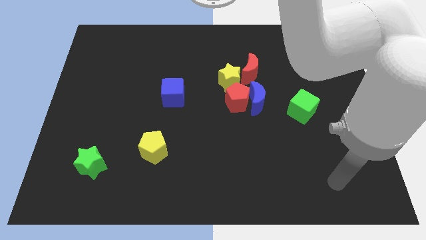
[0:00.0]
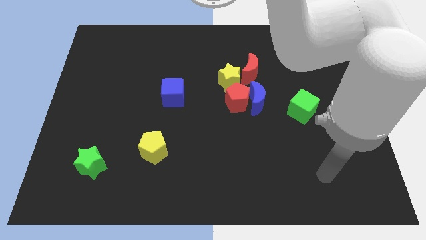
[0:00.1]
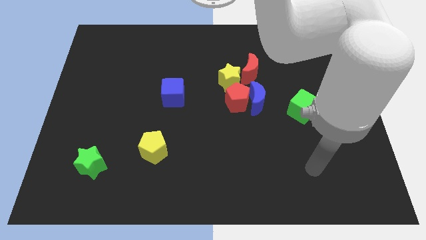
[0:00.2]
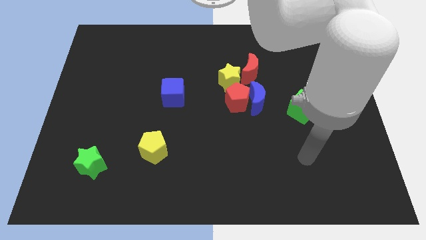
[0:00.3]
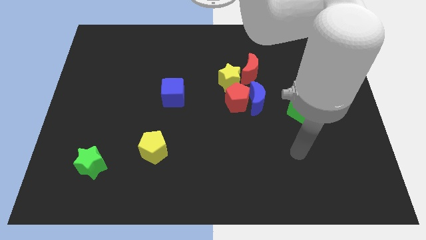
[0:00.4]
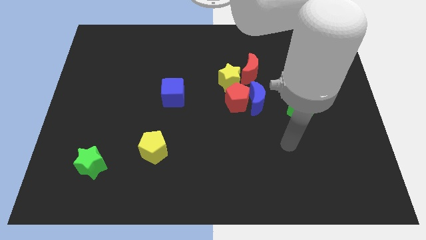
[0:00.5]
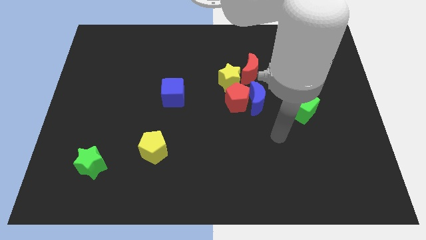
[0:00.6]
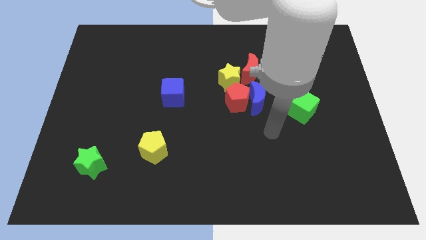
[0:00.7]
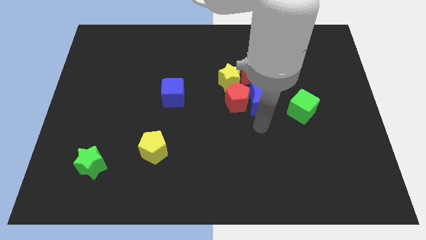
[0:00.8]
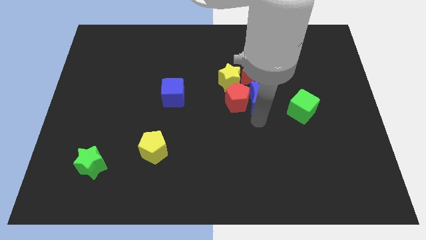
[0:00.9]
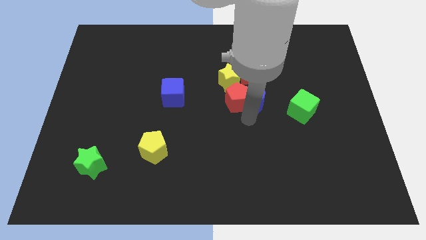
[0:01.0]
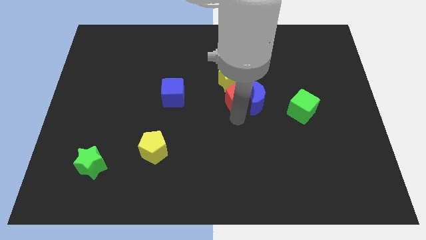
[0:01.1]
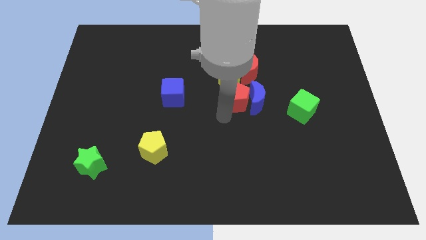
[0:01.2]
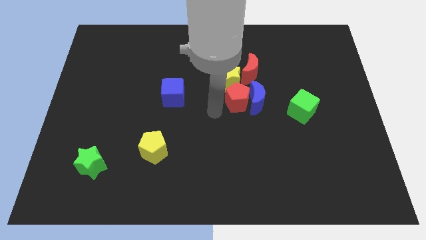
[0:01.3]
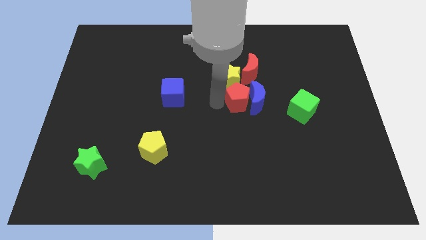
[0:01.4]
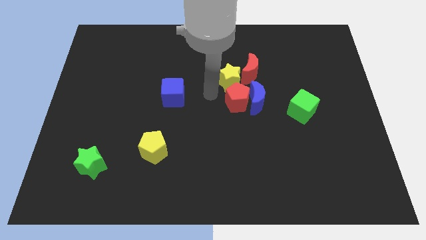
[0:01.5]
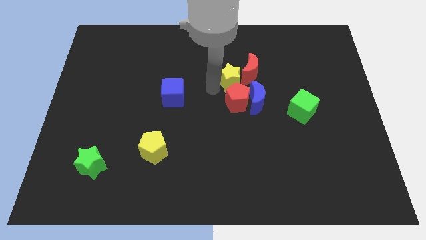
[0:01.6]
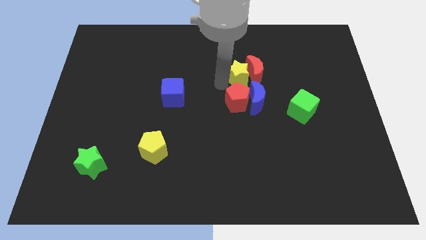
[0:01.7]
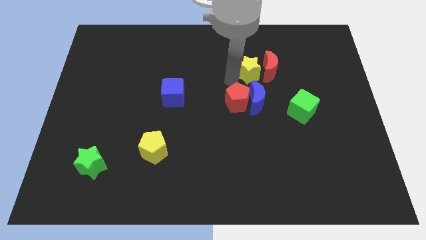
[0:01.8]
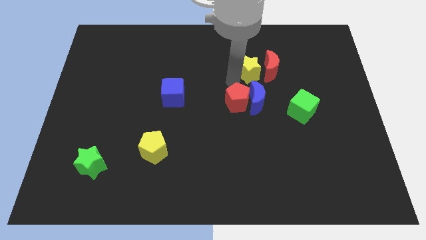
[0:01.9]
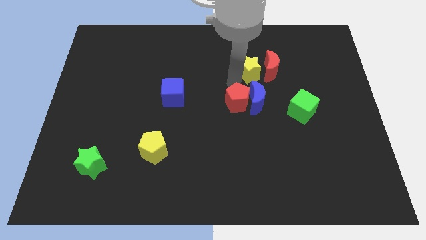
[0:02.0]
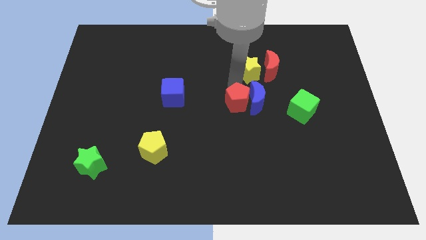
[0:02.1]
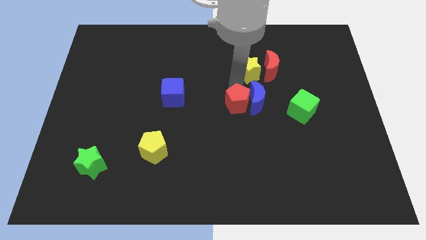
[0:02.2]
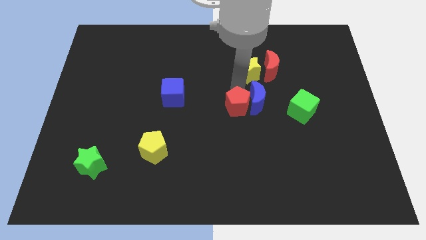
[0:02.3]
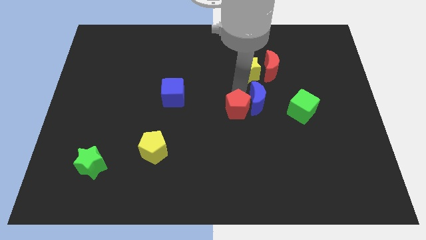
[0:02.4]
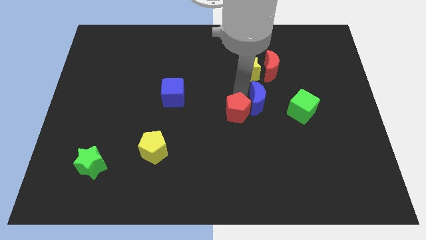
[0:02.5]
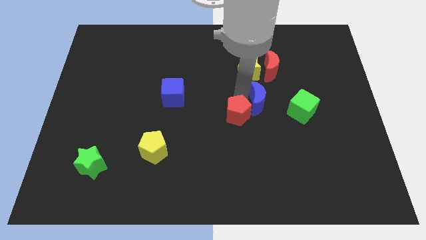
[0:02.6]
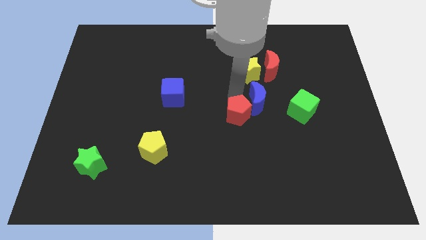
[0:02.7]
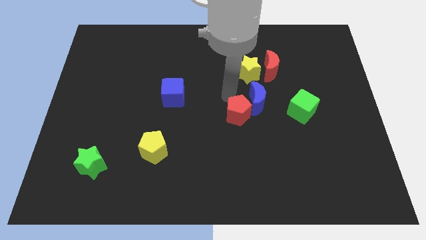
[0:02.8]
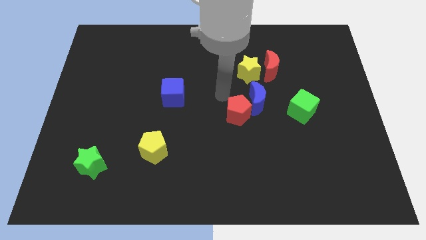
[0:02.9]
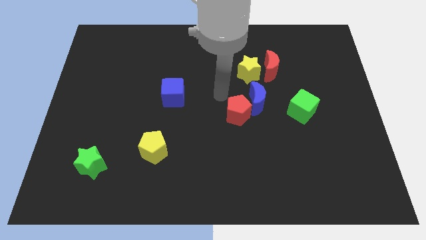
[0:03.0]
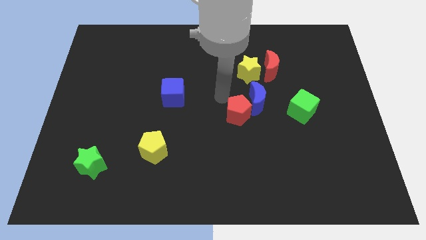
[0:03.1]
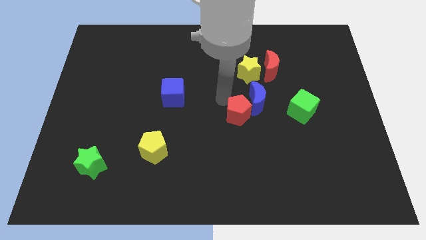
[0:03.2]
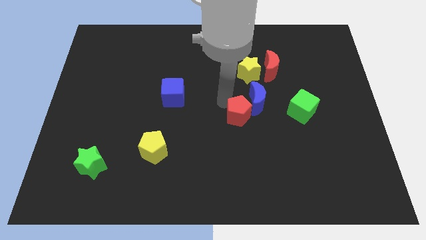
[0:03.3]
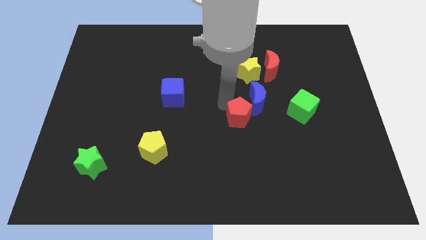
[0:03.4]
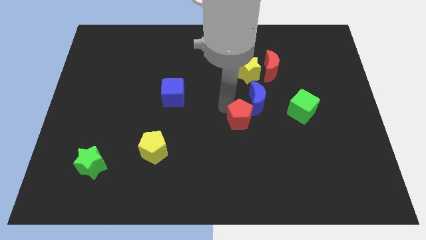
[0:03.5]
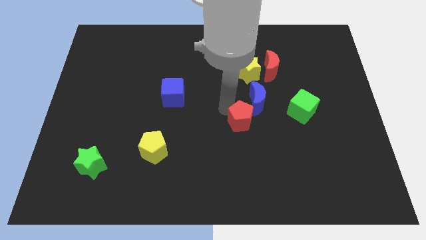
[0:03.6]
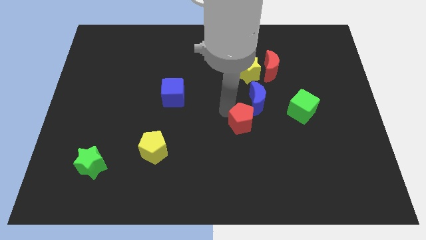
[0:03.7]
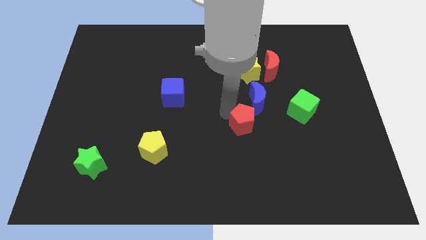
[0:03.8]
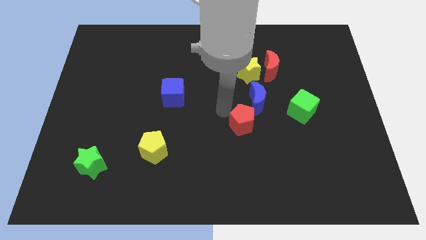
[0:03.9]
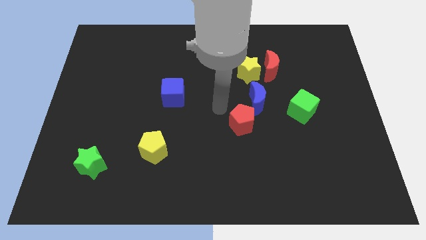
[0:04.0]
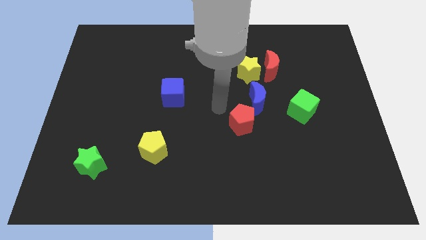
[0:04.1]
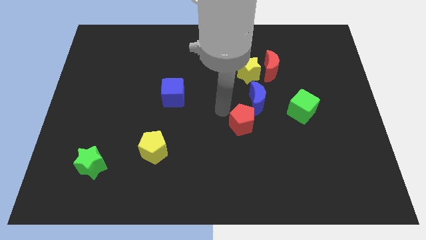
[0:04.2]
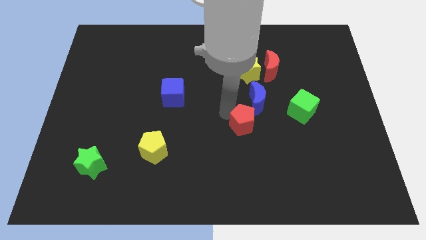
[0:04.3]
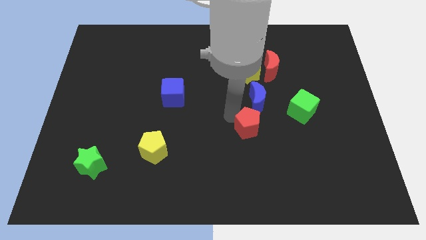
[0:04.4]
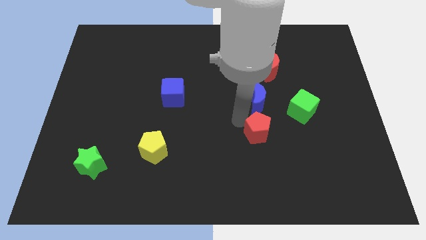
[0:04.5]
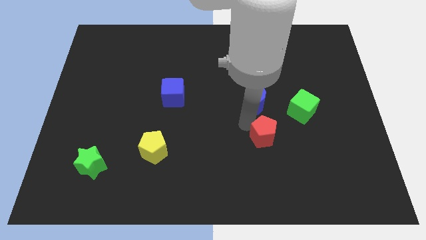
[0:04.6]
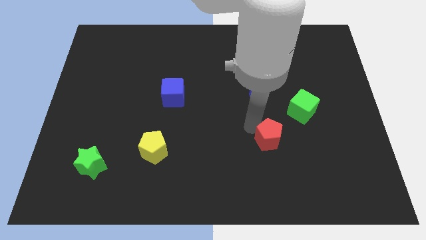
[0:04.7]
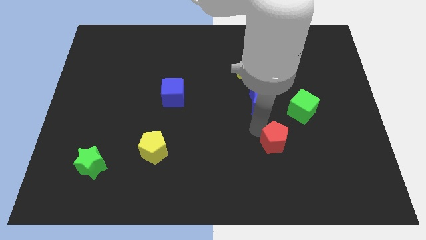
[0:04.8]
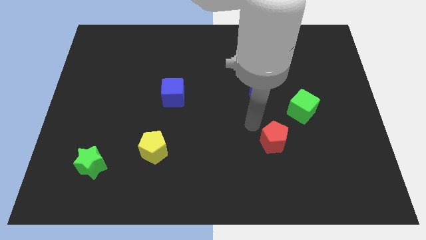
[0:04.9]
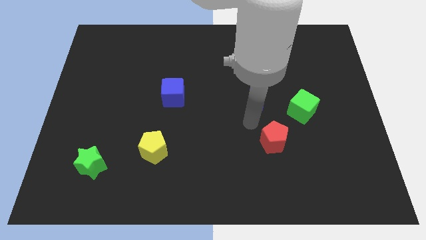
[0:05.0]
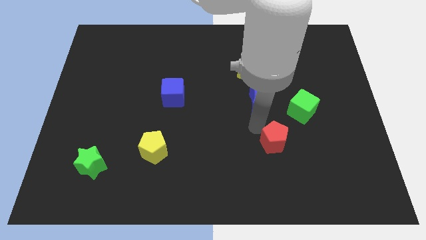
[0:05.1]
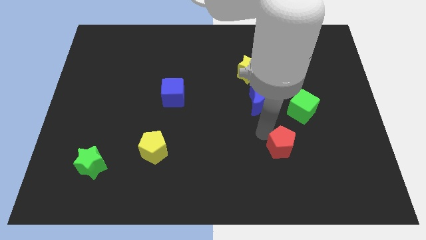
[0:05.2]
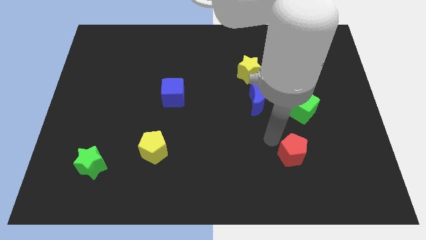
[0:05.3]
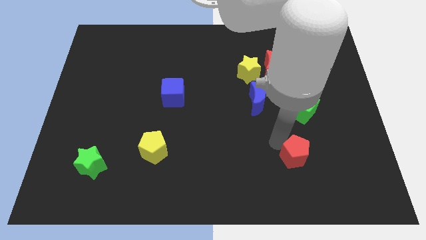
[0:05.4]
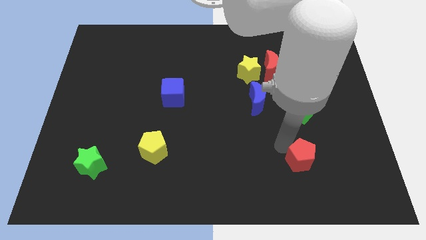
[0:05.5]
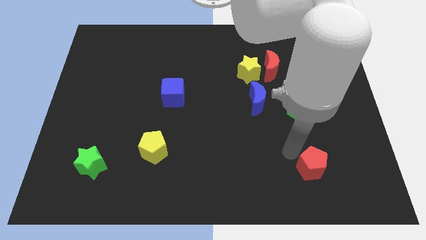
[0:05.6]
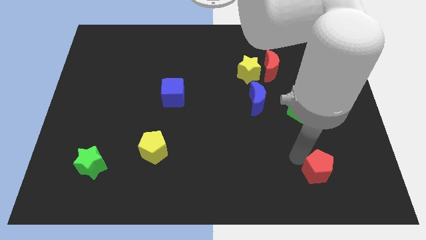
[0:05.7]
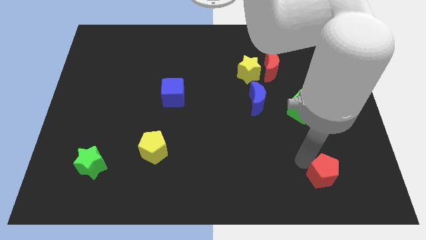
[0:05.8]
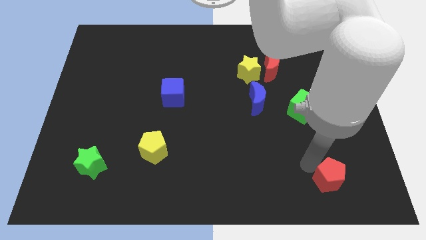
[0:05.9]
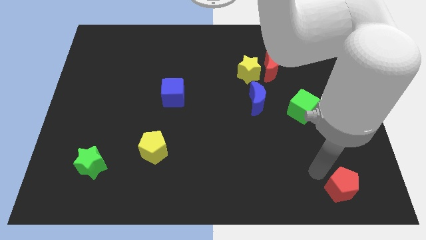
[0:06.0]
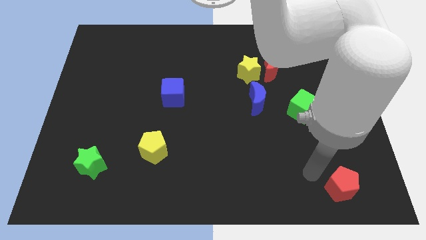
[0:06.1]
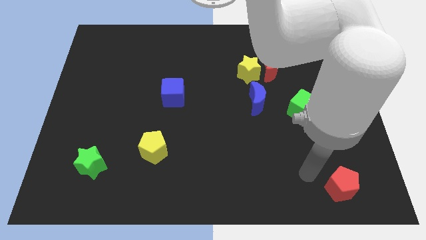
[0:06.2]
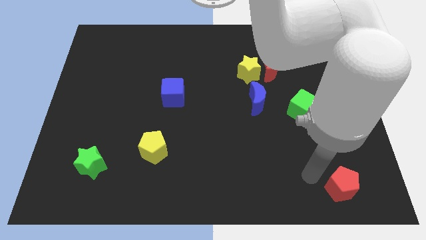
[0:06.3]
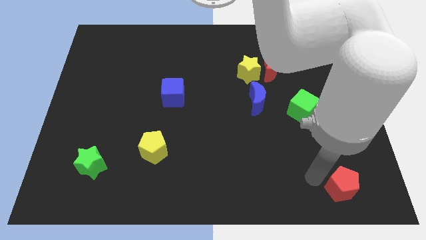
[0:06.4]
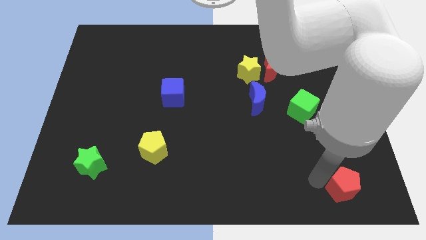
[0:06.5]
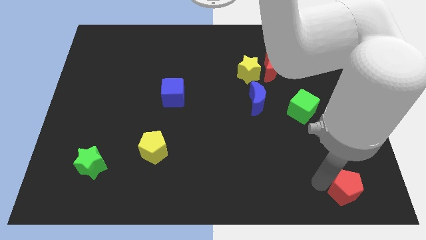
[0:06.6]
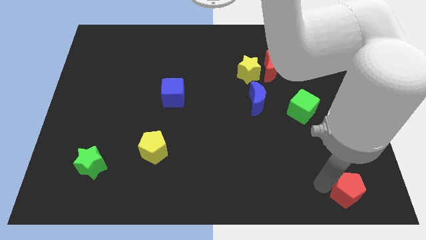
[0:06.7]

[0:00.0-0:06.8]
push the red pentagon to the bottom right of the board
